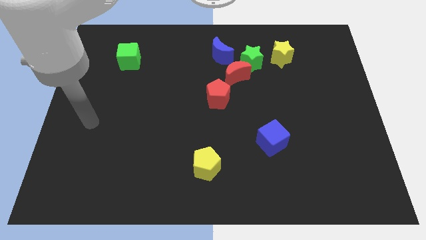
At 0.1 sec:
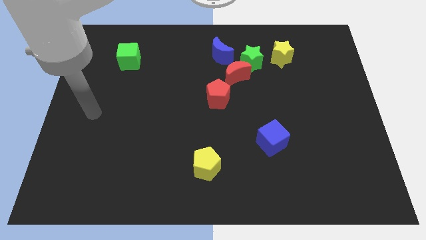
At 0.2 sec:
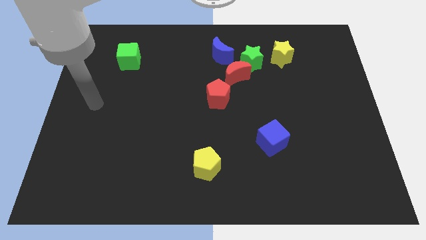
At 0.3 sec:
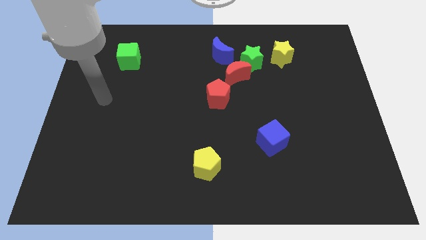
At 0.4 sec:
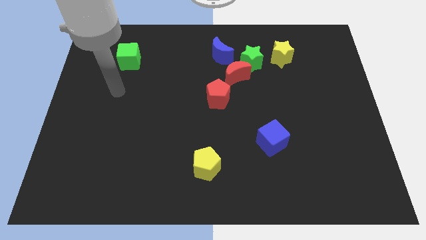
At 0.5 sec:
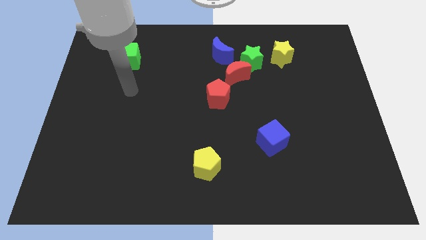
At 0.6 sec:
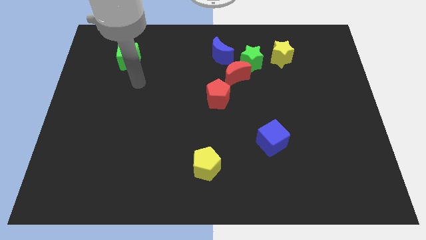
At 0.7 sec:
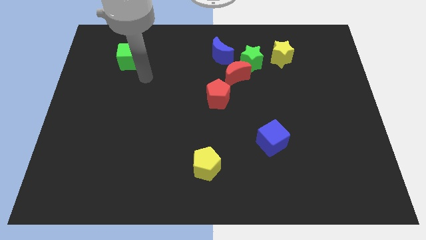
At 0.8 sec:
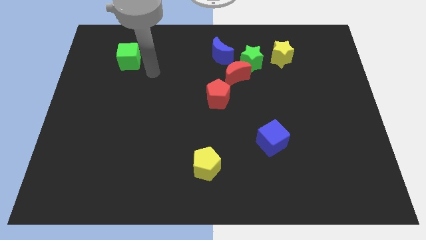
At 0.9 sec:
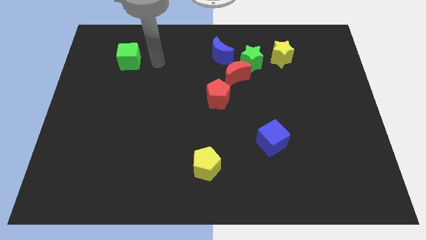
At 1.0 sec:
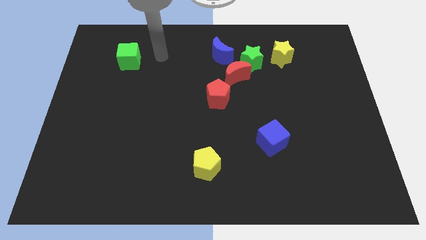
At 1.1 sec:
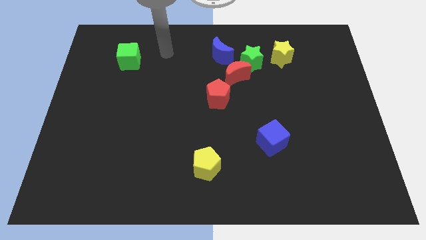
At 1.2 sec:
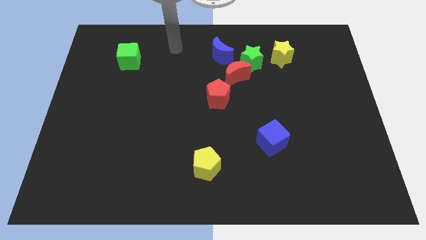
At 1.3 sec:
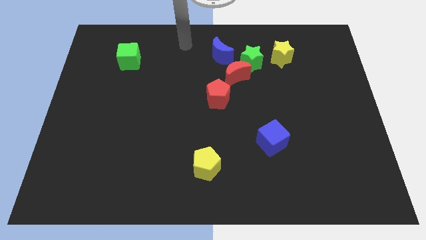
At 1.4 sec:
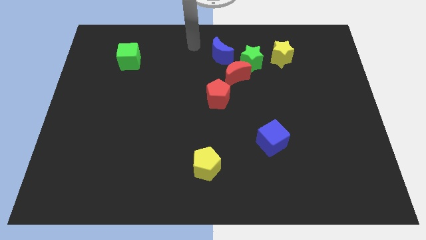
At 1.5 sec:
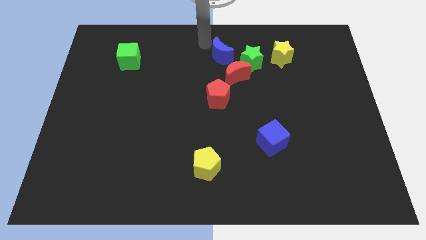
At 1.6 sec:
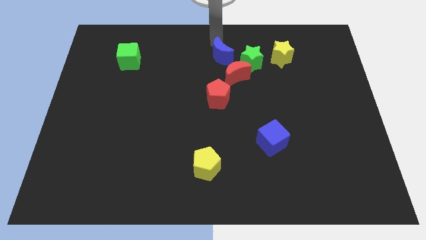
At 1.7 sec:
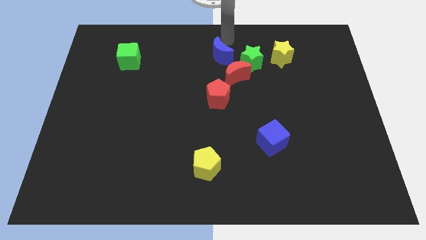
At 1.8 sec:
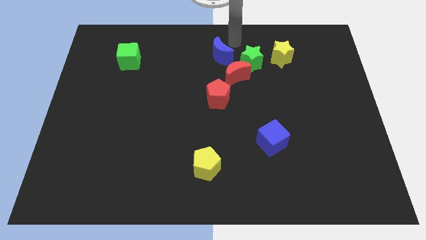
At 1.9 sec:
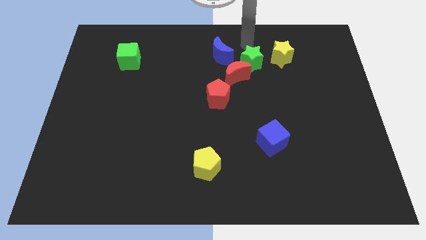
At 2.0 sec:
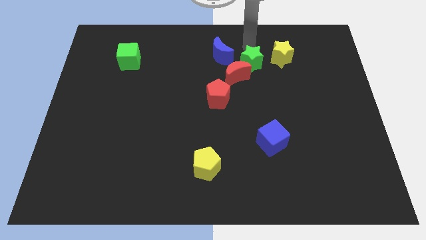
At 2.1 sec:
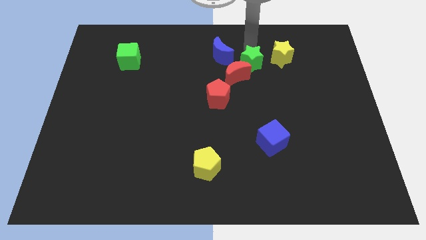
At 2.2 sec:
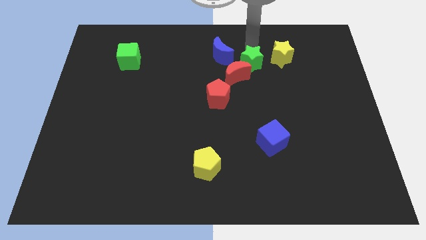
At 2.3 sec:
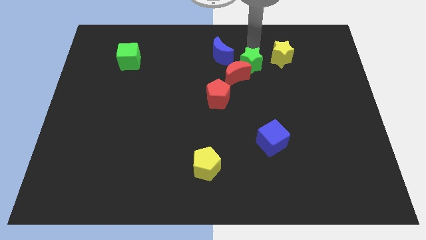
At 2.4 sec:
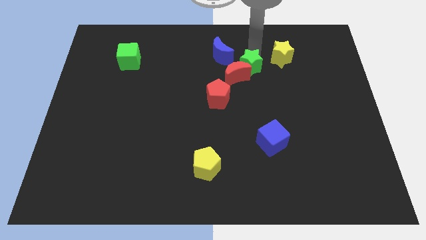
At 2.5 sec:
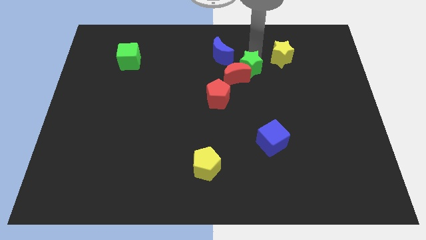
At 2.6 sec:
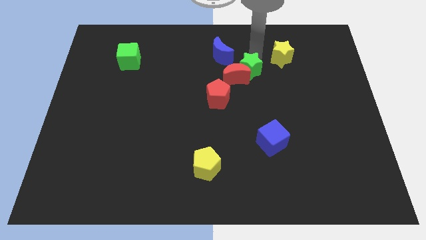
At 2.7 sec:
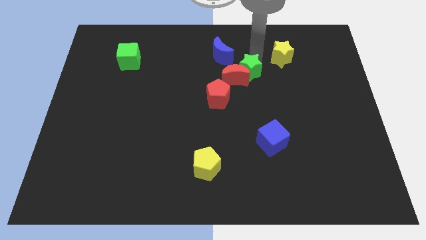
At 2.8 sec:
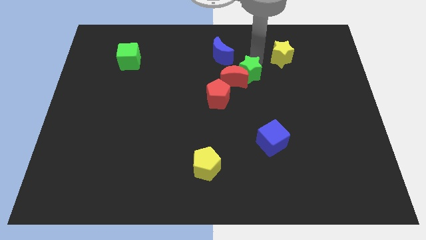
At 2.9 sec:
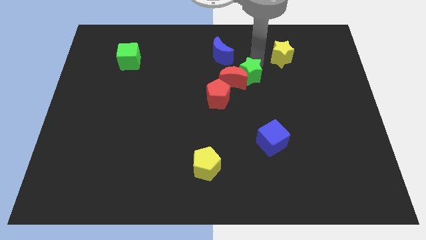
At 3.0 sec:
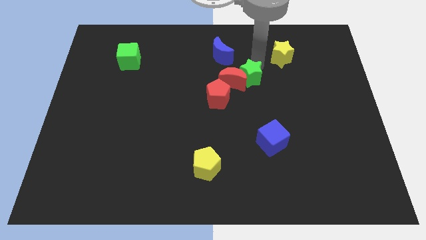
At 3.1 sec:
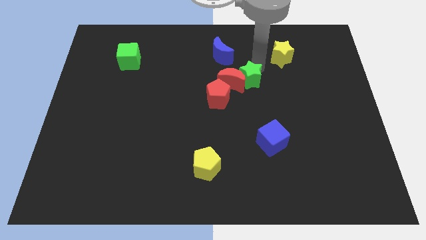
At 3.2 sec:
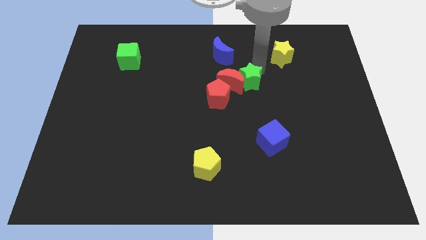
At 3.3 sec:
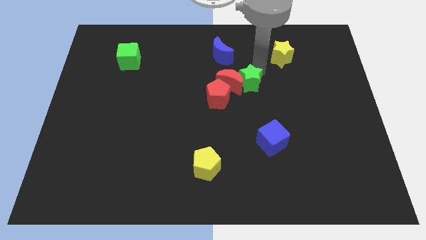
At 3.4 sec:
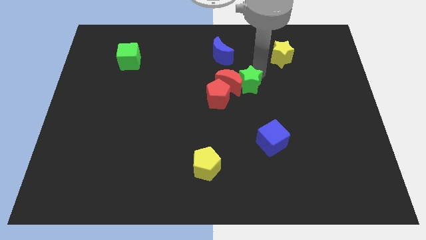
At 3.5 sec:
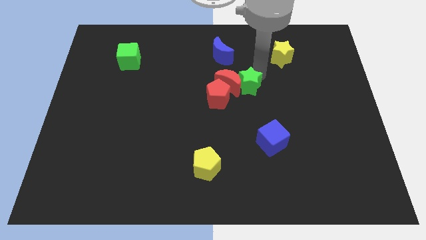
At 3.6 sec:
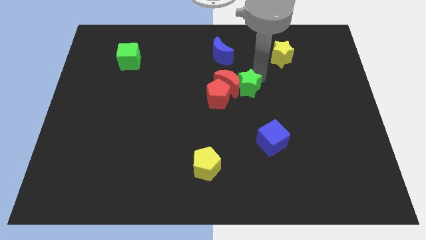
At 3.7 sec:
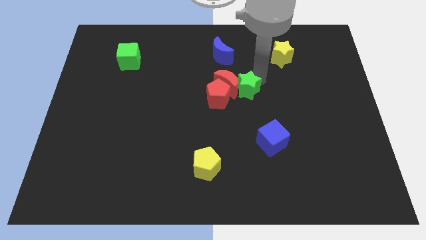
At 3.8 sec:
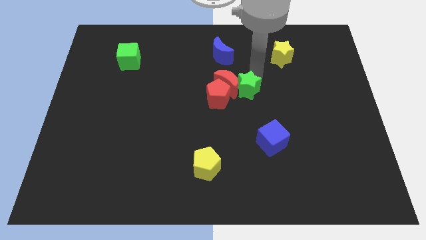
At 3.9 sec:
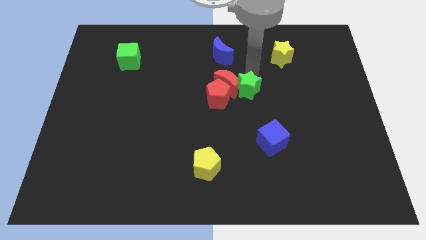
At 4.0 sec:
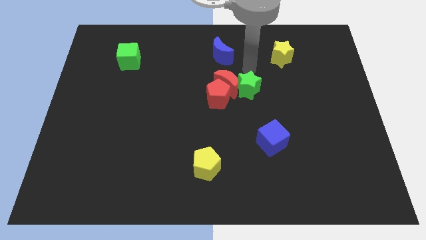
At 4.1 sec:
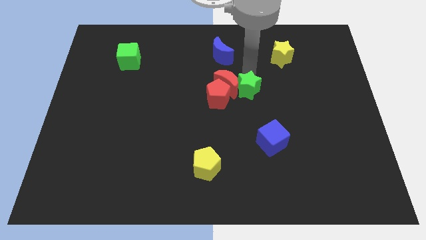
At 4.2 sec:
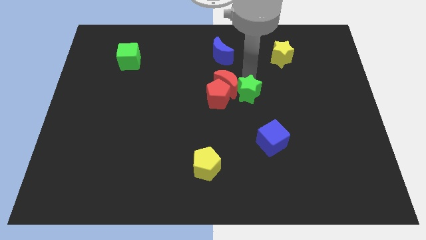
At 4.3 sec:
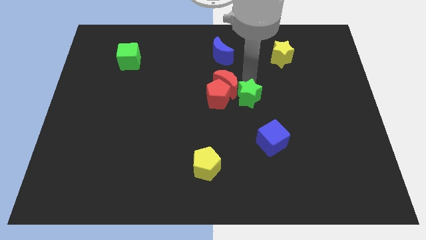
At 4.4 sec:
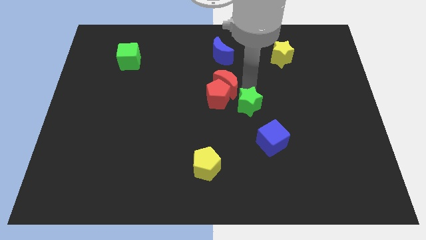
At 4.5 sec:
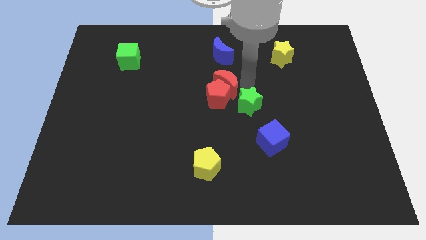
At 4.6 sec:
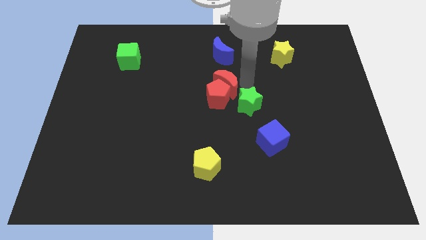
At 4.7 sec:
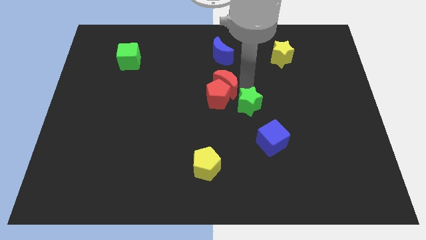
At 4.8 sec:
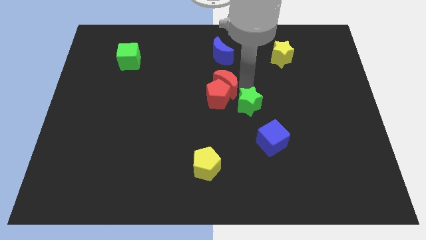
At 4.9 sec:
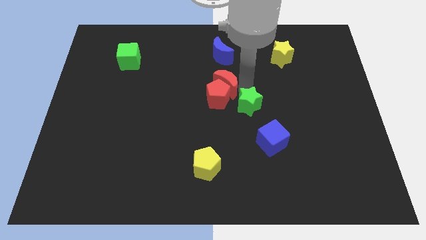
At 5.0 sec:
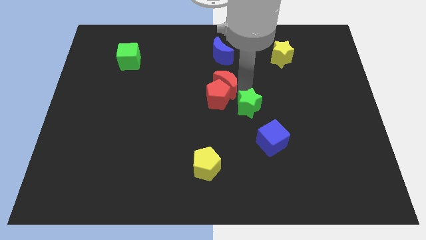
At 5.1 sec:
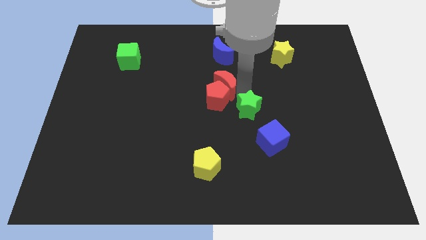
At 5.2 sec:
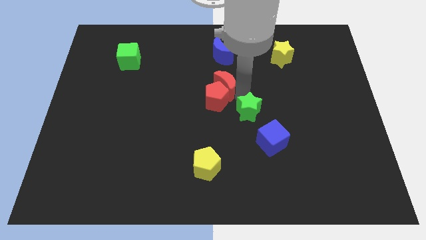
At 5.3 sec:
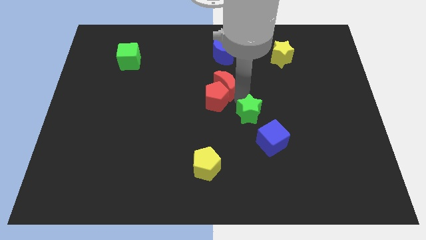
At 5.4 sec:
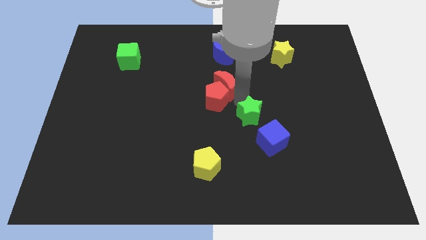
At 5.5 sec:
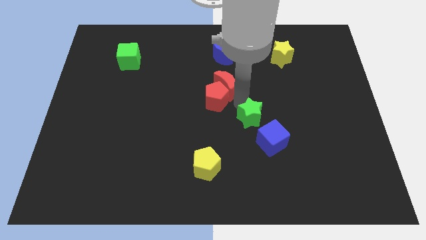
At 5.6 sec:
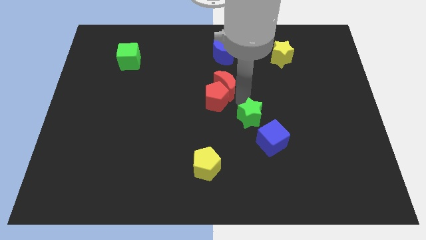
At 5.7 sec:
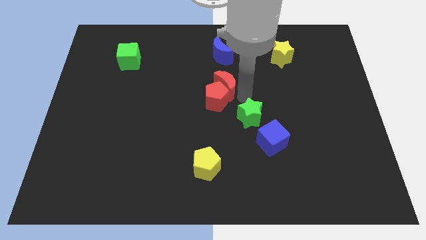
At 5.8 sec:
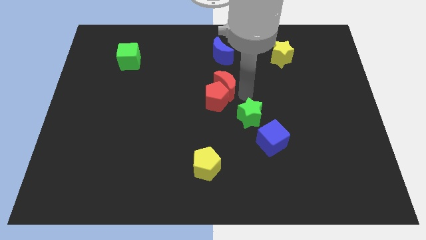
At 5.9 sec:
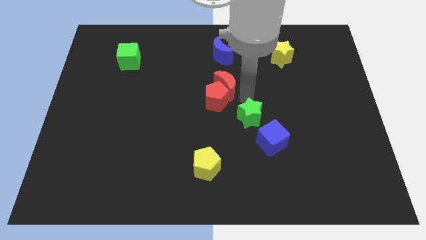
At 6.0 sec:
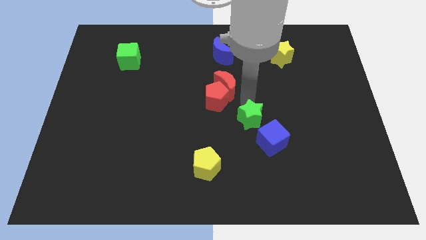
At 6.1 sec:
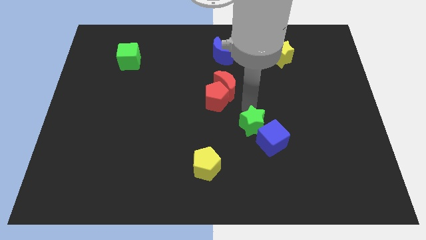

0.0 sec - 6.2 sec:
move the green star downwards

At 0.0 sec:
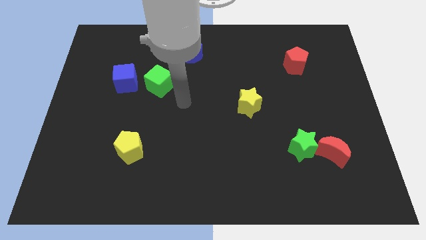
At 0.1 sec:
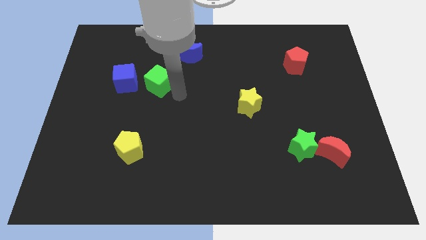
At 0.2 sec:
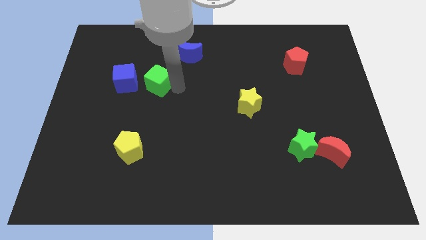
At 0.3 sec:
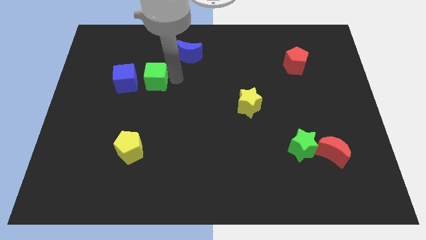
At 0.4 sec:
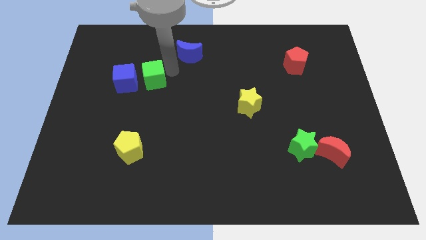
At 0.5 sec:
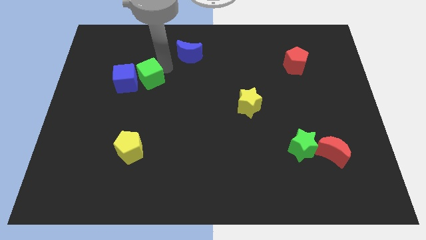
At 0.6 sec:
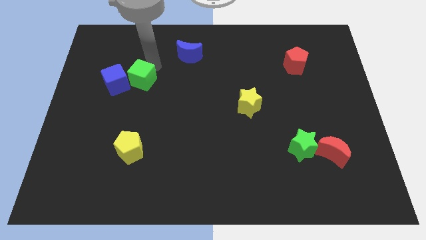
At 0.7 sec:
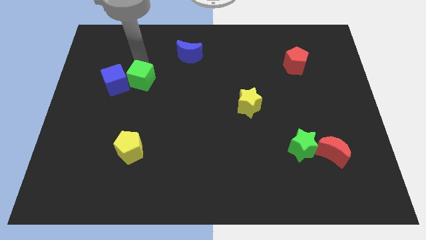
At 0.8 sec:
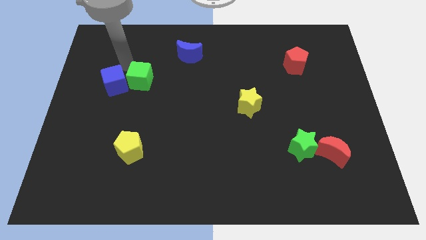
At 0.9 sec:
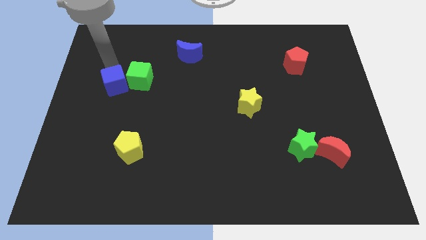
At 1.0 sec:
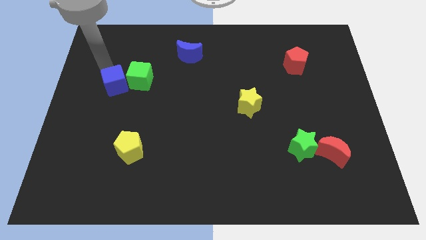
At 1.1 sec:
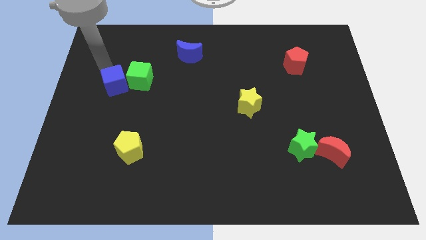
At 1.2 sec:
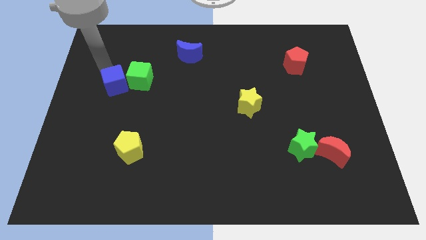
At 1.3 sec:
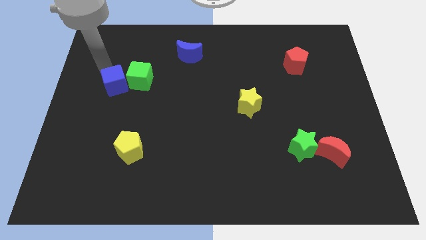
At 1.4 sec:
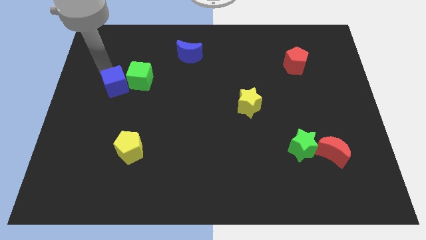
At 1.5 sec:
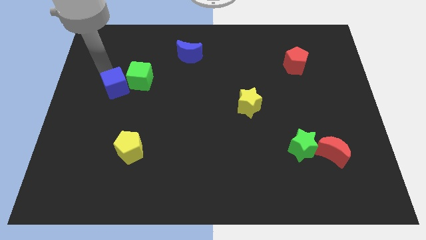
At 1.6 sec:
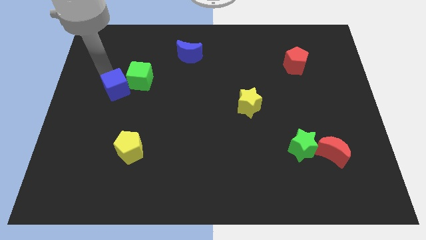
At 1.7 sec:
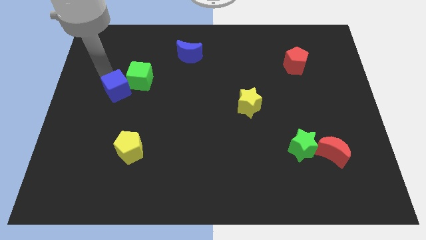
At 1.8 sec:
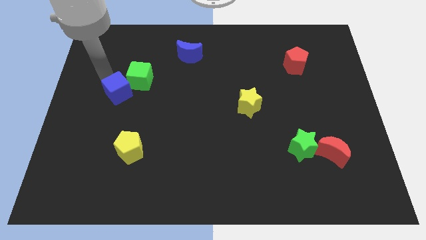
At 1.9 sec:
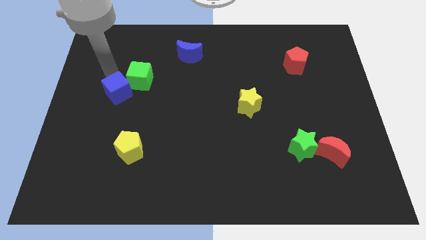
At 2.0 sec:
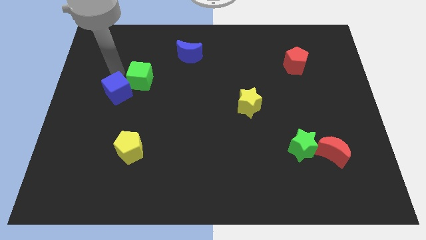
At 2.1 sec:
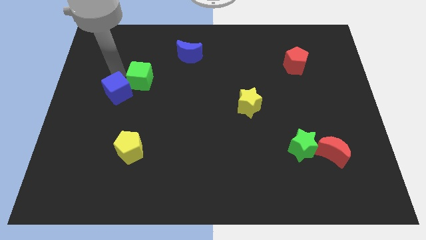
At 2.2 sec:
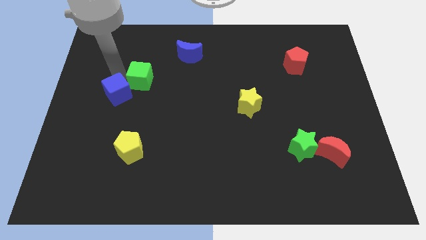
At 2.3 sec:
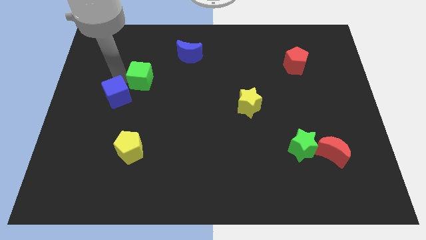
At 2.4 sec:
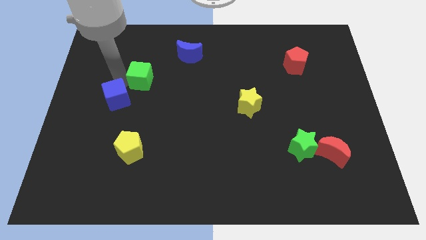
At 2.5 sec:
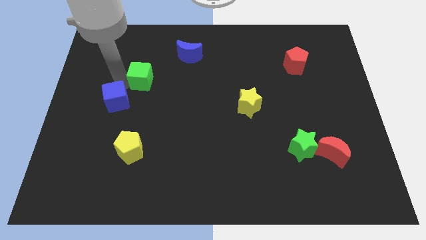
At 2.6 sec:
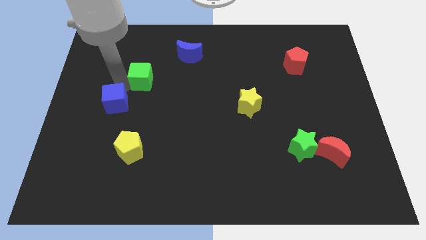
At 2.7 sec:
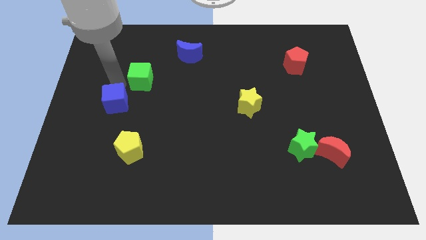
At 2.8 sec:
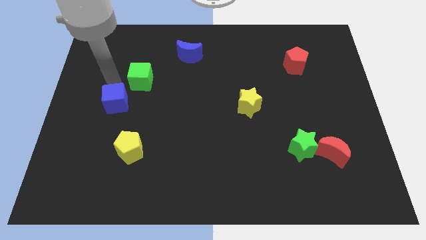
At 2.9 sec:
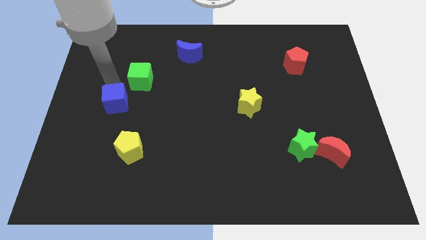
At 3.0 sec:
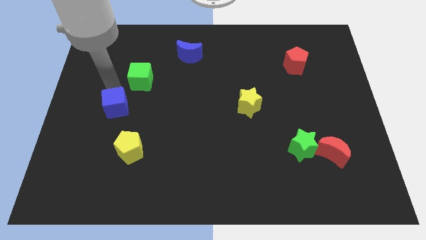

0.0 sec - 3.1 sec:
slide the blue cube downwards a little bit
